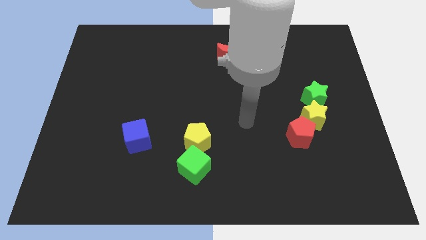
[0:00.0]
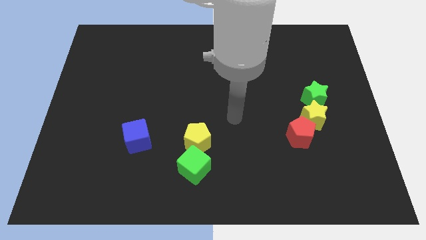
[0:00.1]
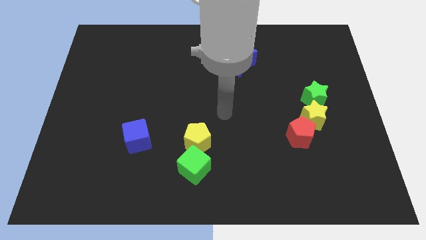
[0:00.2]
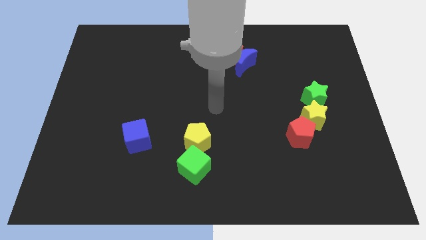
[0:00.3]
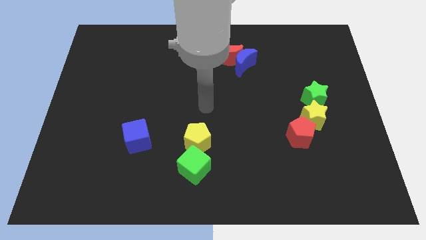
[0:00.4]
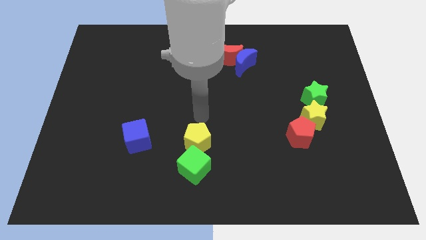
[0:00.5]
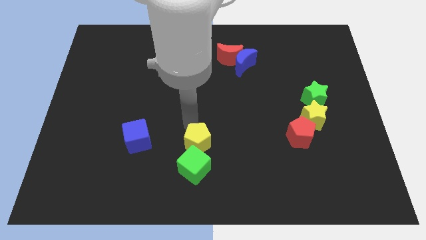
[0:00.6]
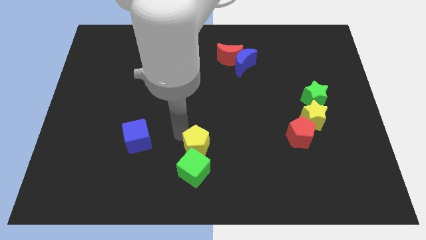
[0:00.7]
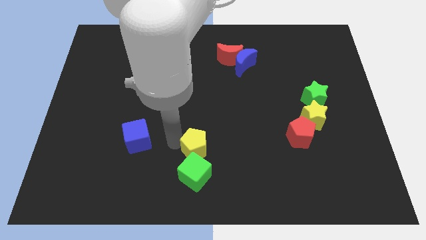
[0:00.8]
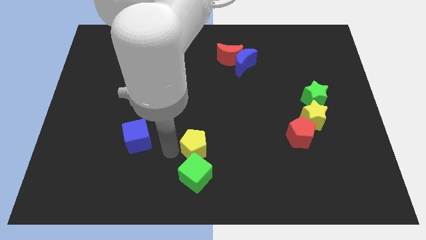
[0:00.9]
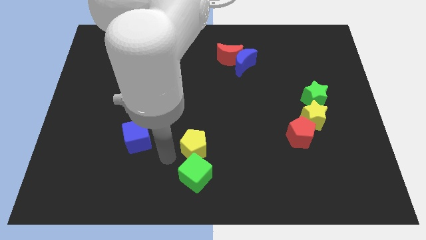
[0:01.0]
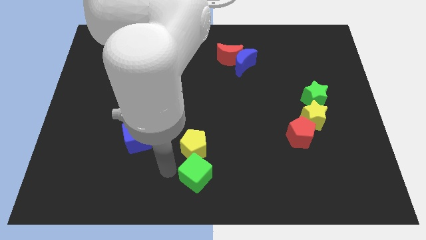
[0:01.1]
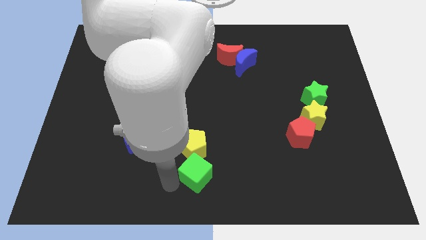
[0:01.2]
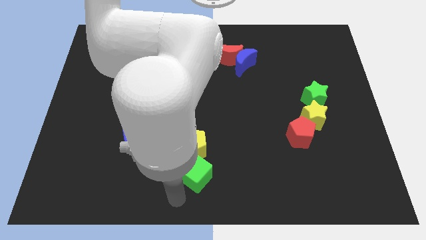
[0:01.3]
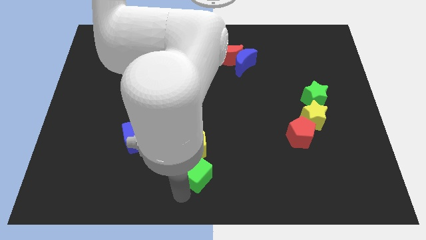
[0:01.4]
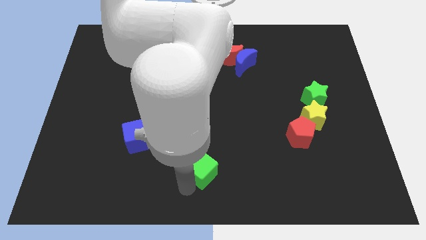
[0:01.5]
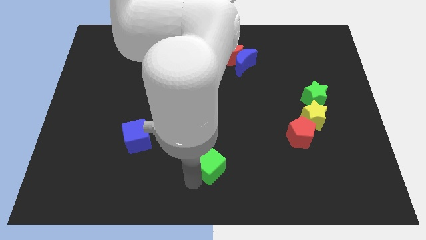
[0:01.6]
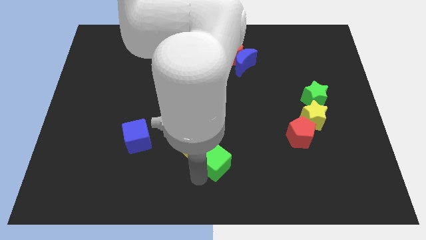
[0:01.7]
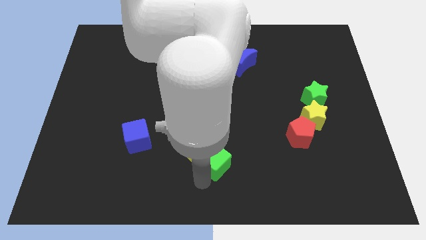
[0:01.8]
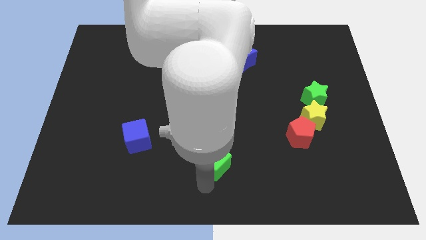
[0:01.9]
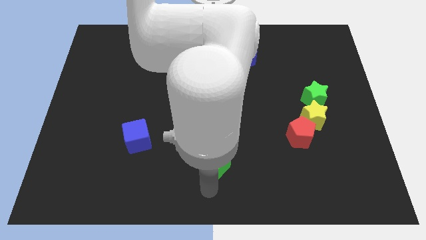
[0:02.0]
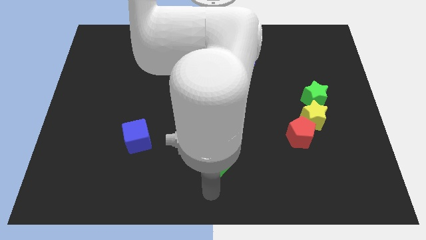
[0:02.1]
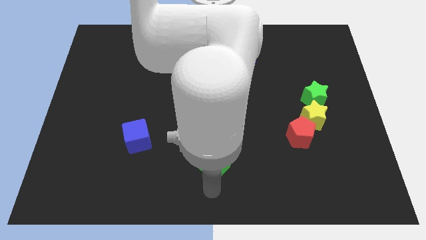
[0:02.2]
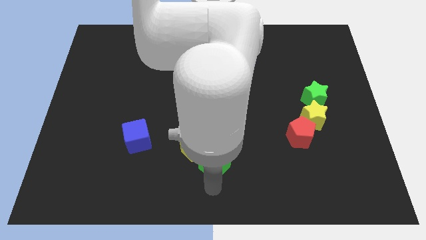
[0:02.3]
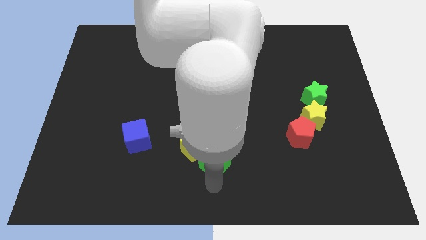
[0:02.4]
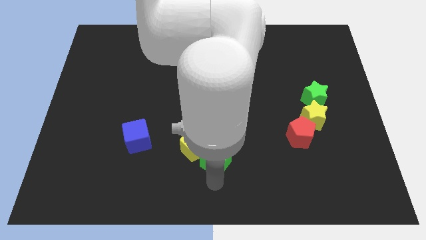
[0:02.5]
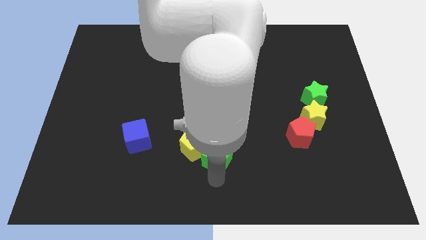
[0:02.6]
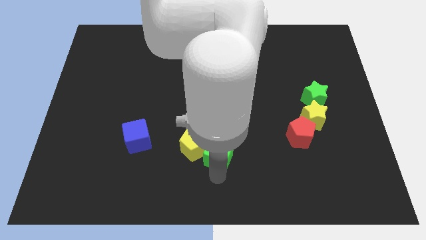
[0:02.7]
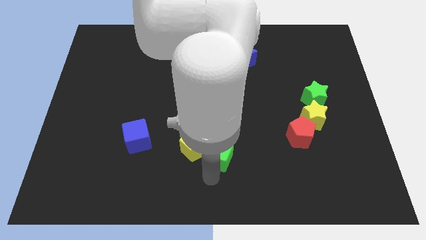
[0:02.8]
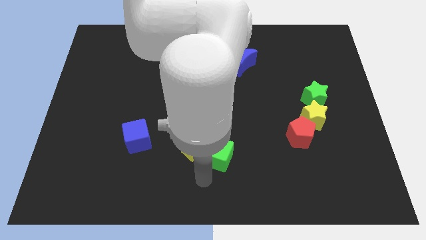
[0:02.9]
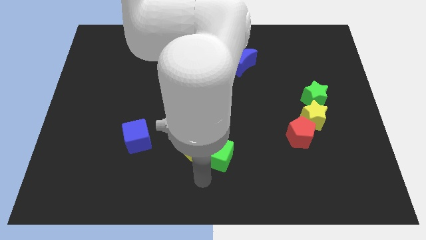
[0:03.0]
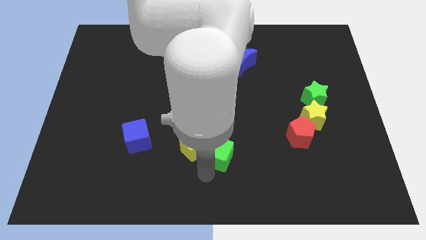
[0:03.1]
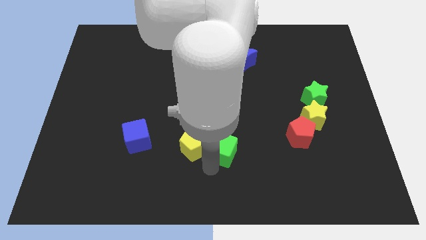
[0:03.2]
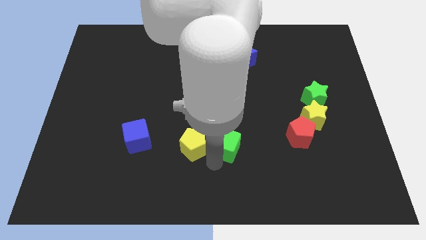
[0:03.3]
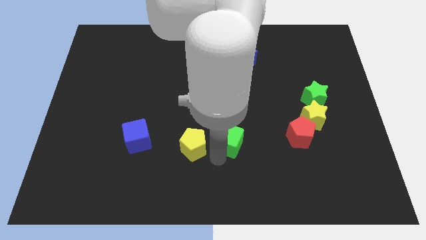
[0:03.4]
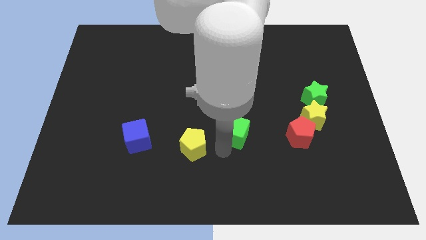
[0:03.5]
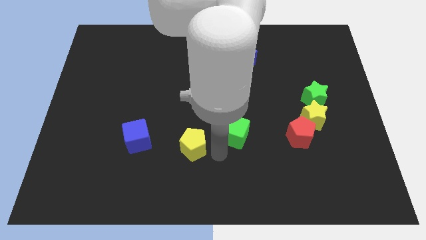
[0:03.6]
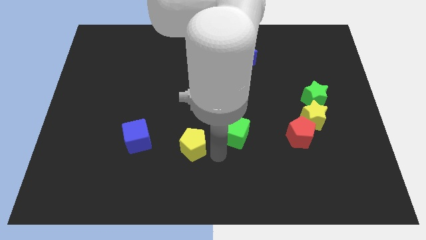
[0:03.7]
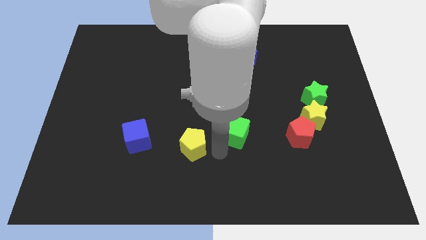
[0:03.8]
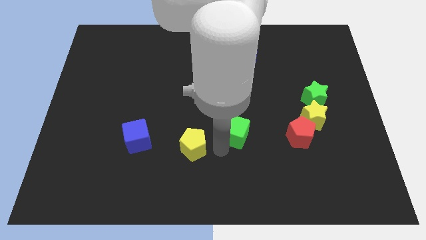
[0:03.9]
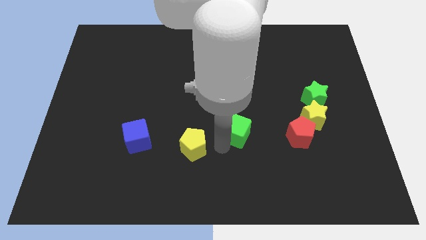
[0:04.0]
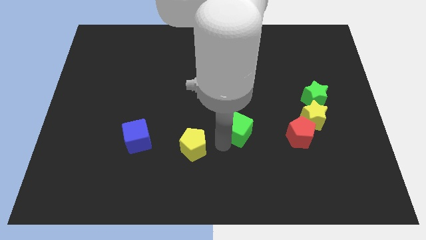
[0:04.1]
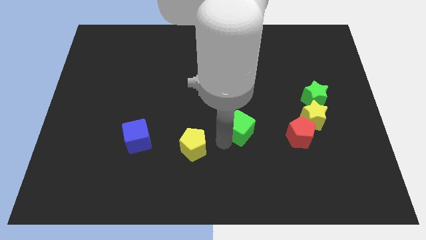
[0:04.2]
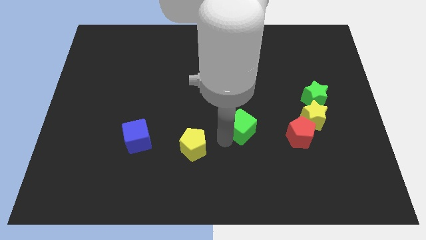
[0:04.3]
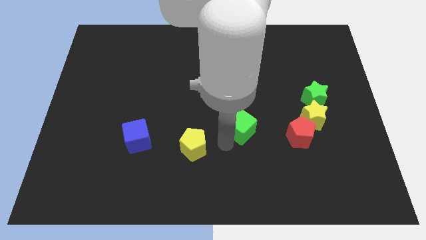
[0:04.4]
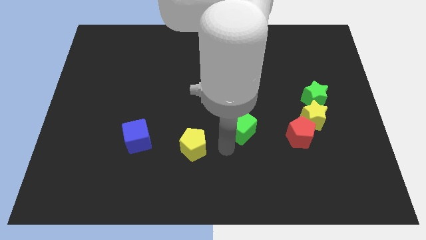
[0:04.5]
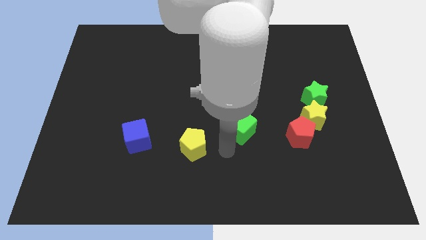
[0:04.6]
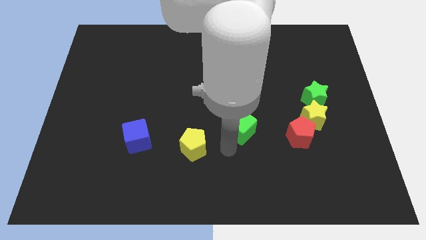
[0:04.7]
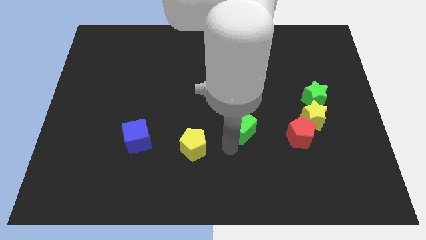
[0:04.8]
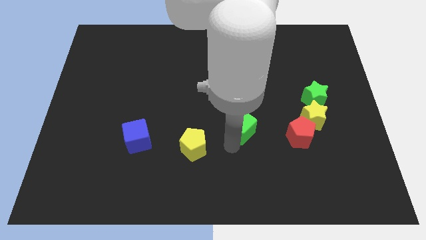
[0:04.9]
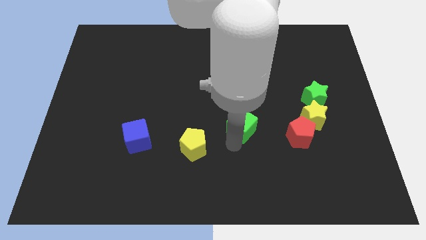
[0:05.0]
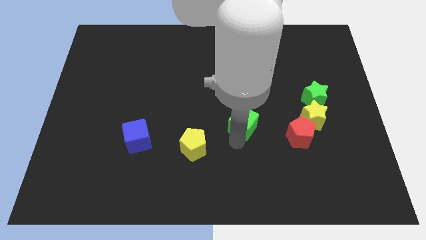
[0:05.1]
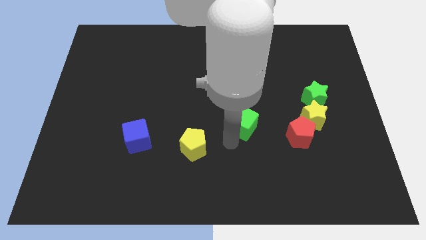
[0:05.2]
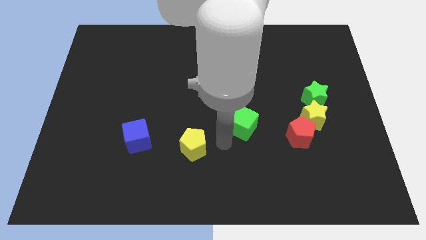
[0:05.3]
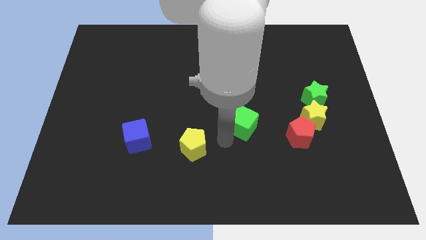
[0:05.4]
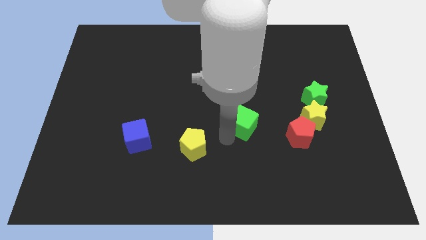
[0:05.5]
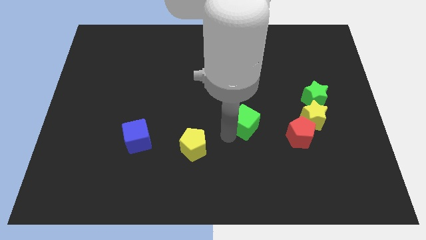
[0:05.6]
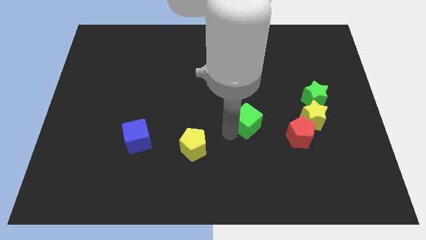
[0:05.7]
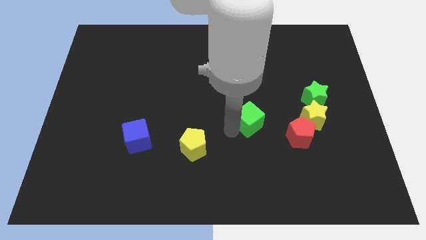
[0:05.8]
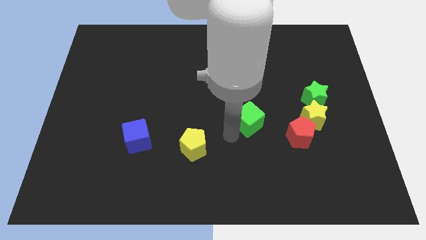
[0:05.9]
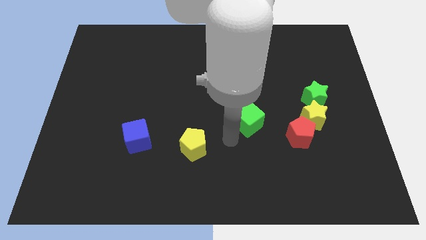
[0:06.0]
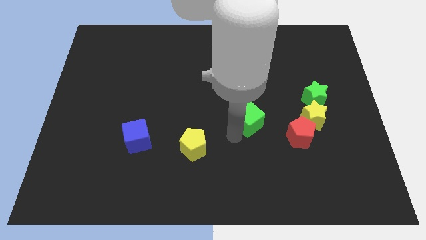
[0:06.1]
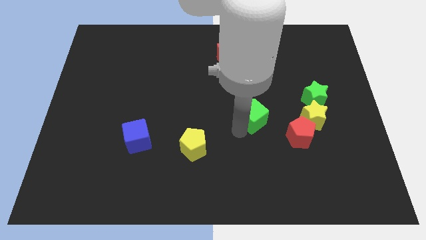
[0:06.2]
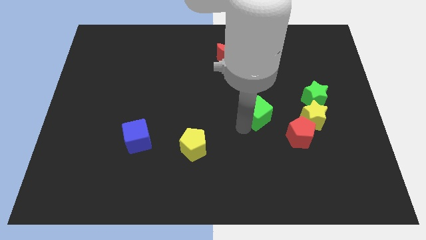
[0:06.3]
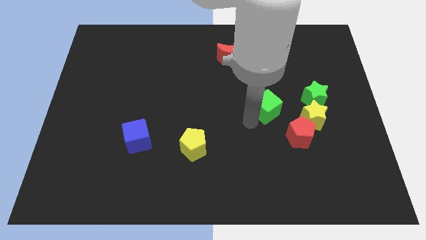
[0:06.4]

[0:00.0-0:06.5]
slide the green cube upwards and right diagonally

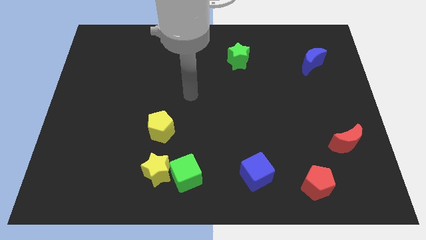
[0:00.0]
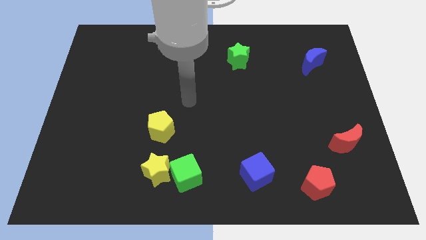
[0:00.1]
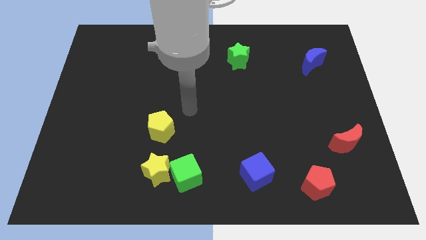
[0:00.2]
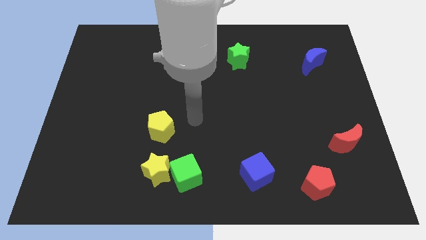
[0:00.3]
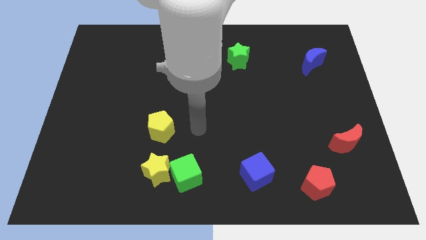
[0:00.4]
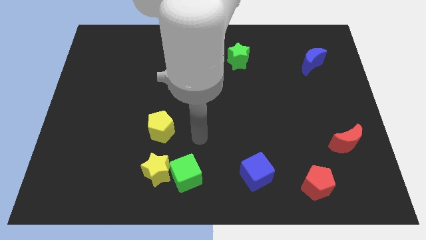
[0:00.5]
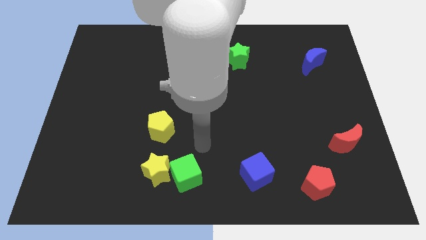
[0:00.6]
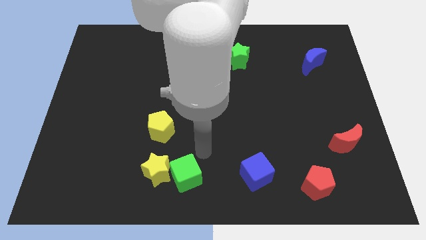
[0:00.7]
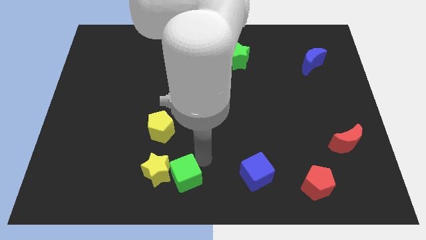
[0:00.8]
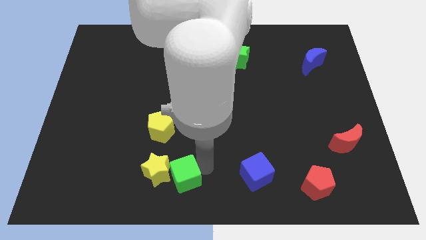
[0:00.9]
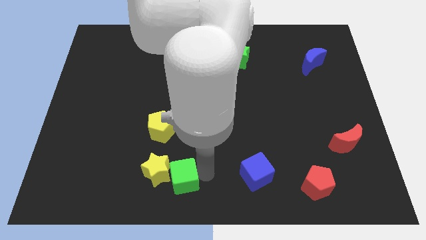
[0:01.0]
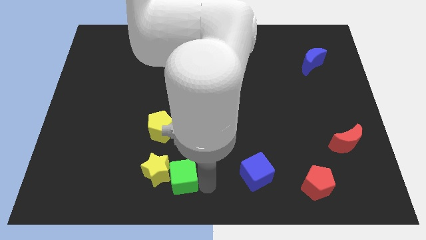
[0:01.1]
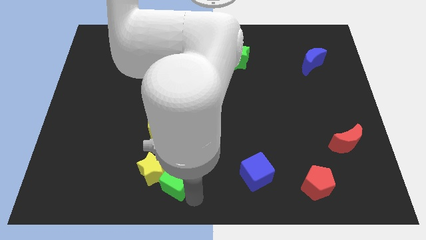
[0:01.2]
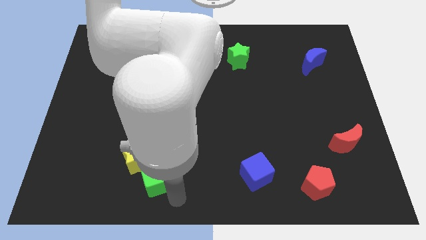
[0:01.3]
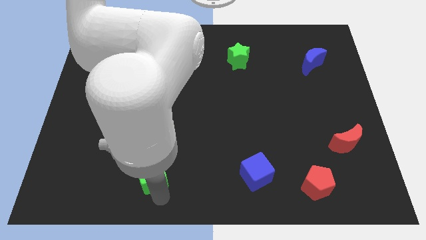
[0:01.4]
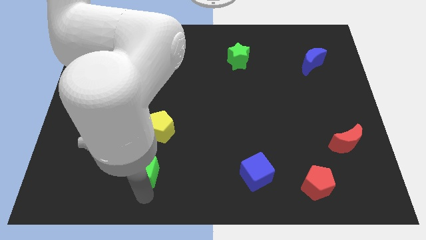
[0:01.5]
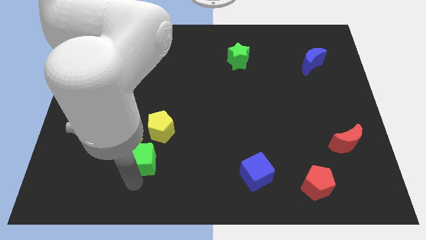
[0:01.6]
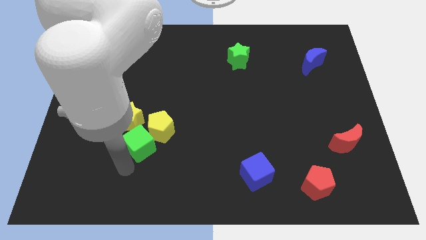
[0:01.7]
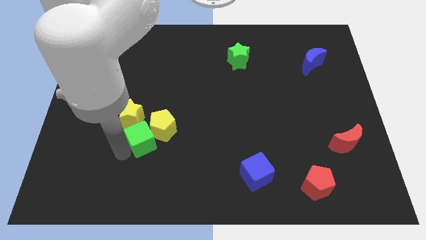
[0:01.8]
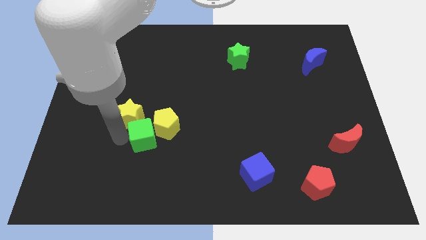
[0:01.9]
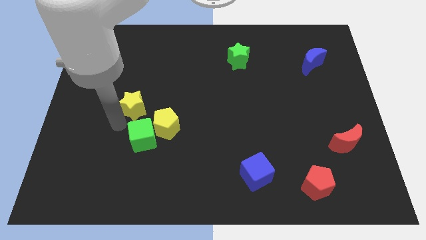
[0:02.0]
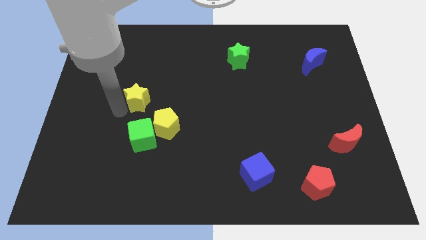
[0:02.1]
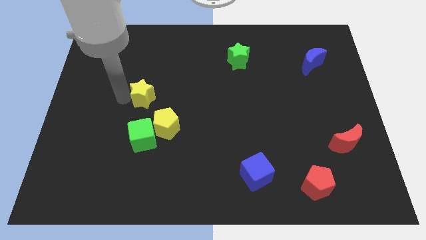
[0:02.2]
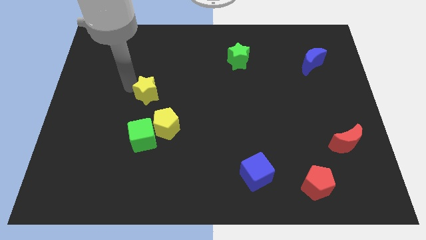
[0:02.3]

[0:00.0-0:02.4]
slide the yellow star upwards
